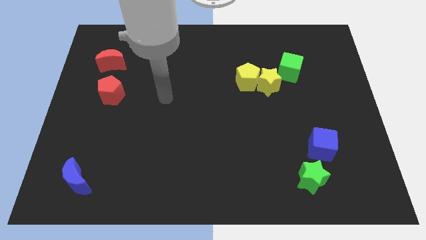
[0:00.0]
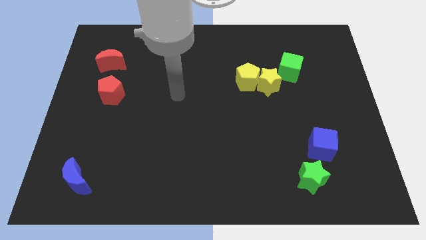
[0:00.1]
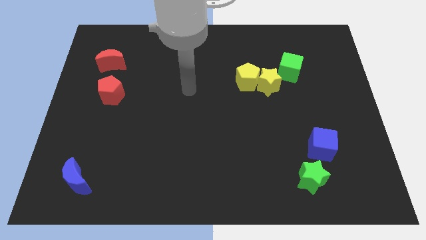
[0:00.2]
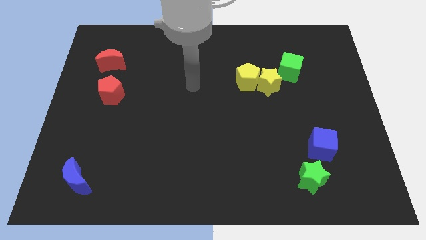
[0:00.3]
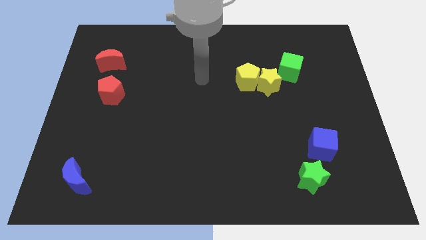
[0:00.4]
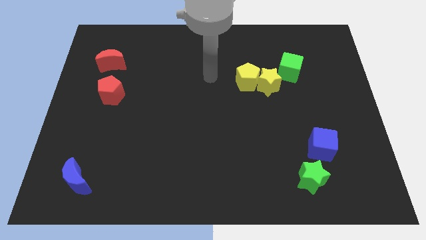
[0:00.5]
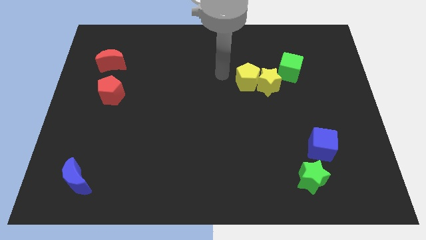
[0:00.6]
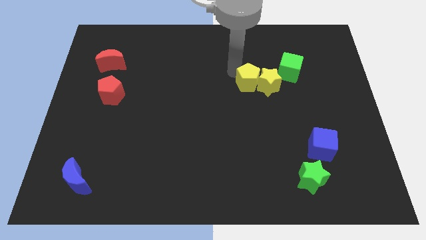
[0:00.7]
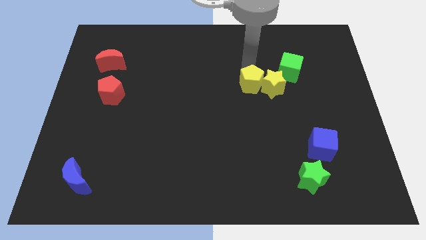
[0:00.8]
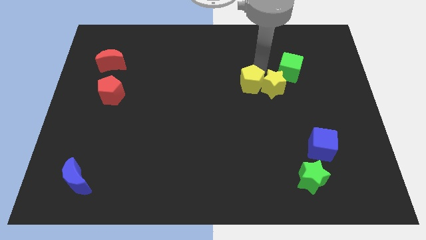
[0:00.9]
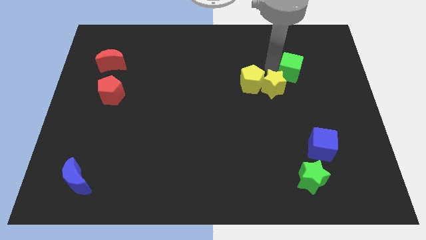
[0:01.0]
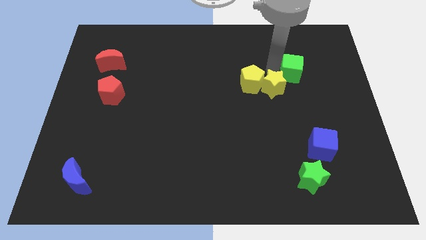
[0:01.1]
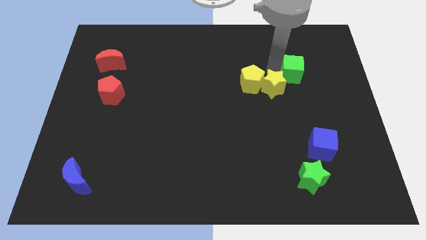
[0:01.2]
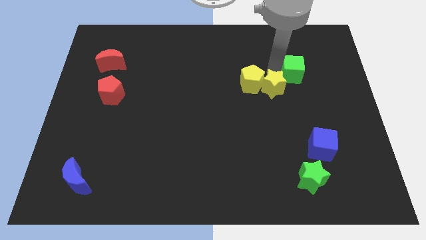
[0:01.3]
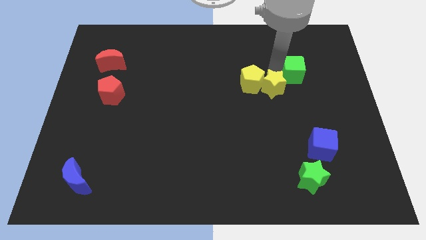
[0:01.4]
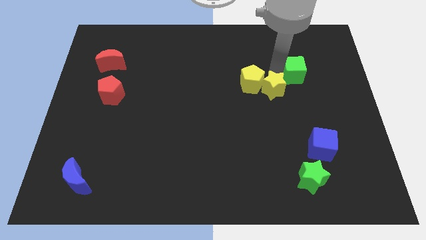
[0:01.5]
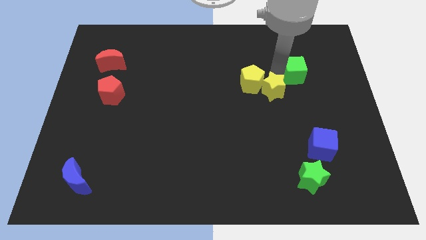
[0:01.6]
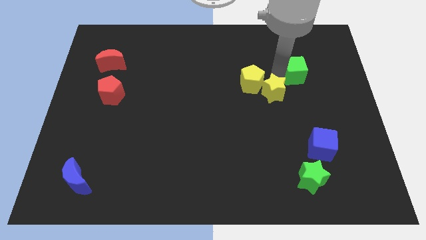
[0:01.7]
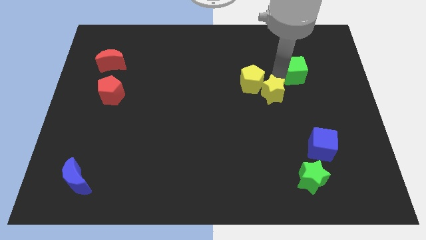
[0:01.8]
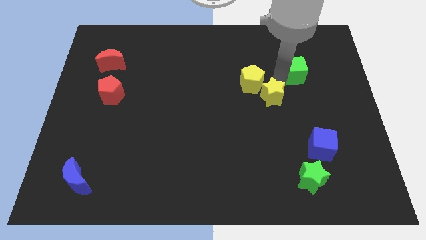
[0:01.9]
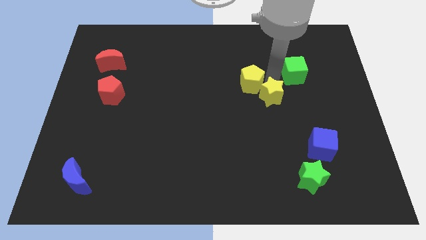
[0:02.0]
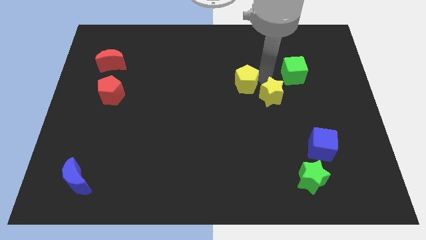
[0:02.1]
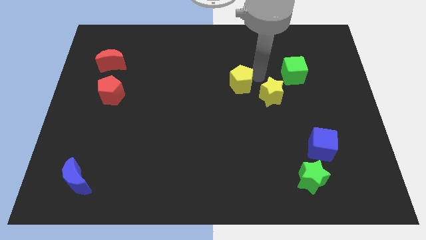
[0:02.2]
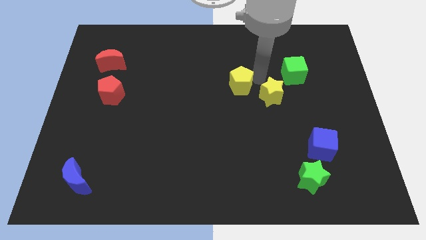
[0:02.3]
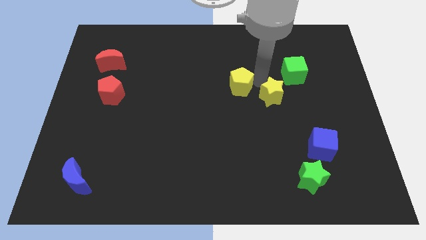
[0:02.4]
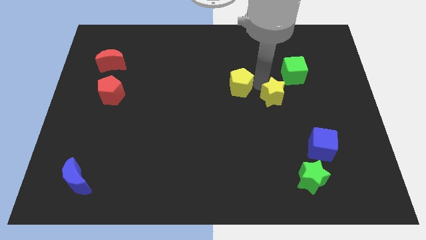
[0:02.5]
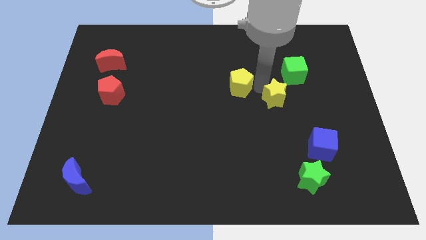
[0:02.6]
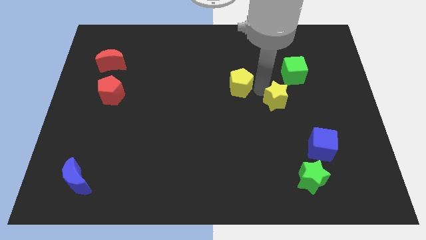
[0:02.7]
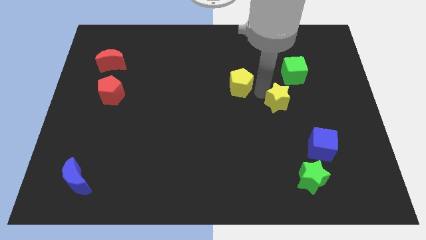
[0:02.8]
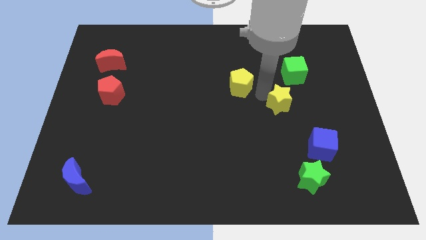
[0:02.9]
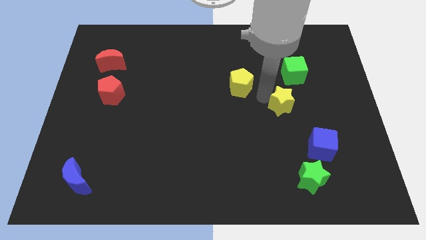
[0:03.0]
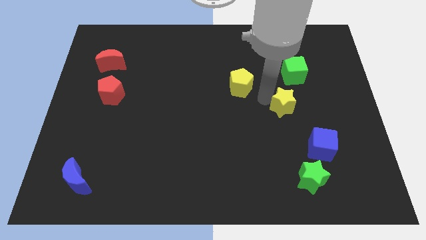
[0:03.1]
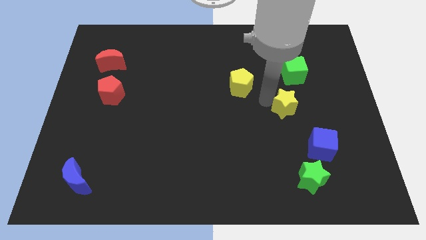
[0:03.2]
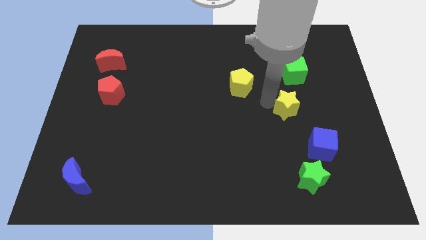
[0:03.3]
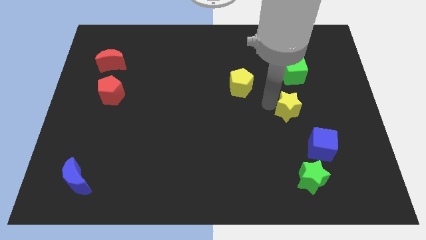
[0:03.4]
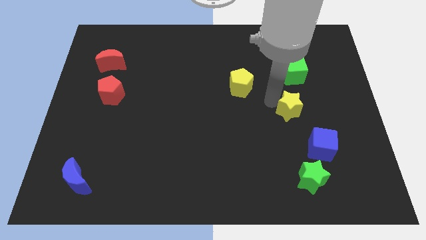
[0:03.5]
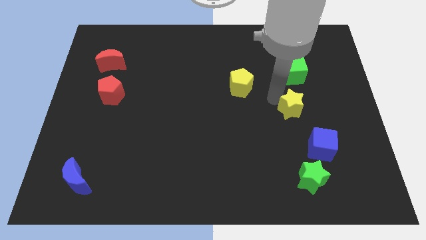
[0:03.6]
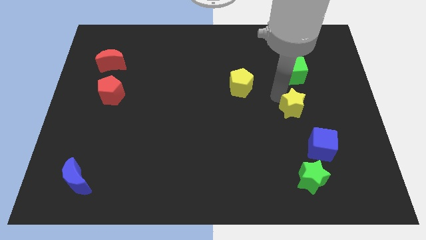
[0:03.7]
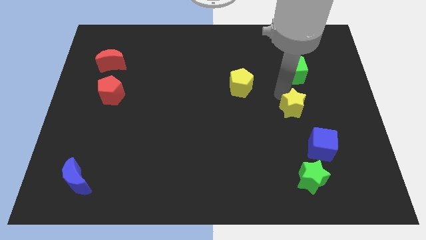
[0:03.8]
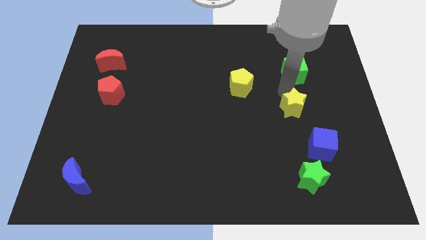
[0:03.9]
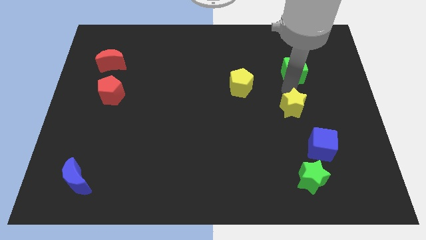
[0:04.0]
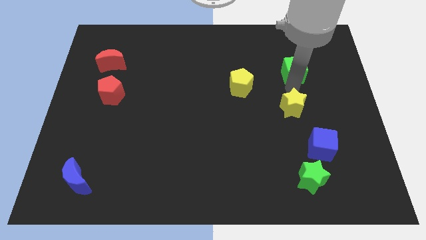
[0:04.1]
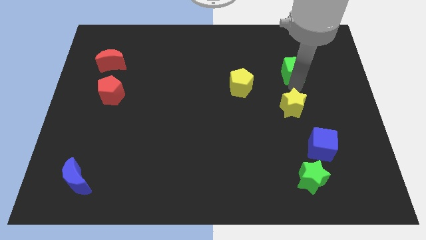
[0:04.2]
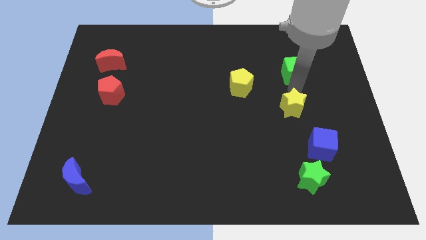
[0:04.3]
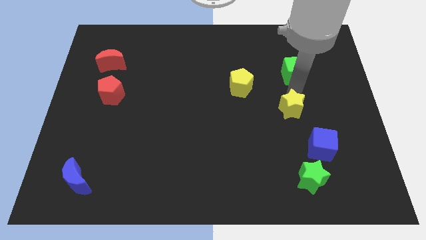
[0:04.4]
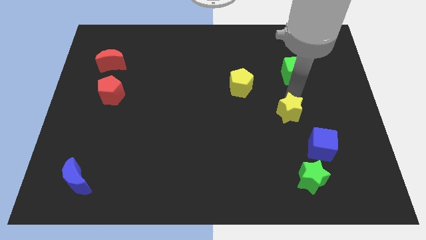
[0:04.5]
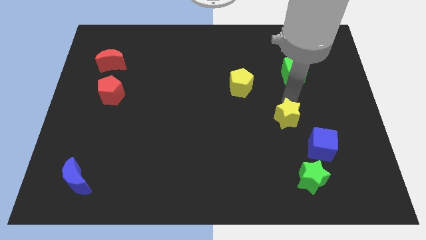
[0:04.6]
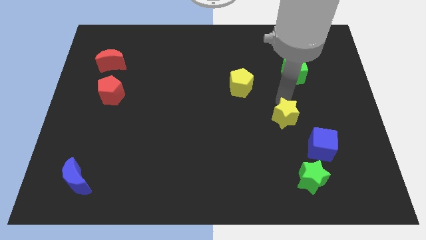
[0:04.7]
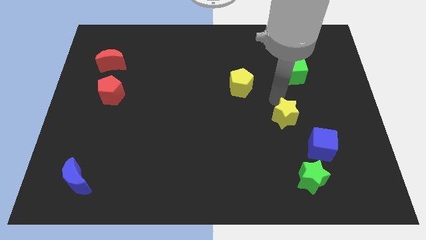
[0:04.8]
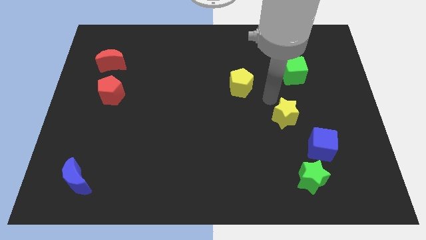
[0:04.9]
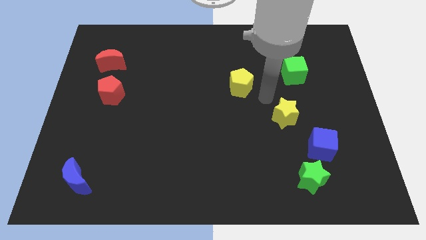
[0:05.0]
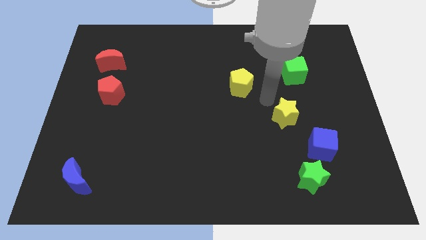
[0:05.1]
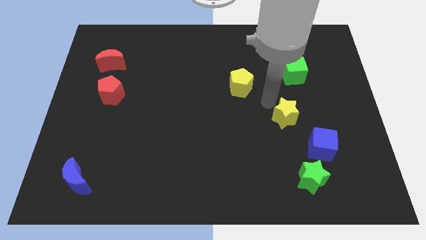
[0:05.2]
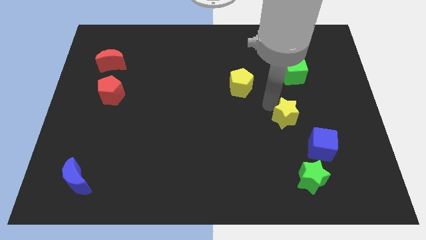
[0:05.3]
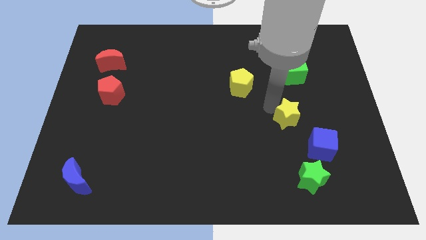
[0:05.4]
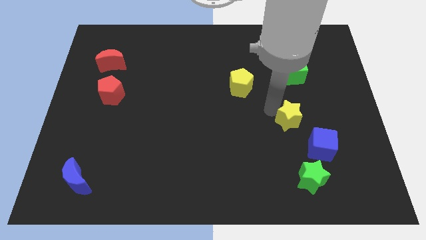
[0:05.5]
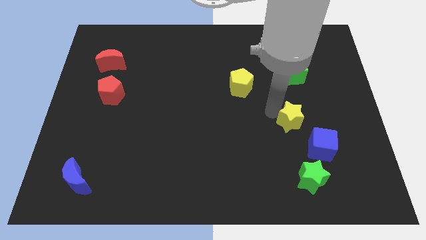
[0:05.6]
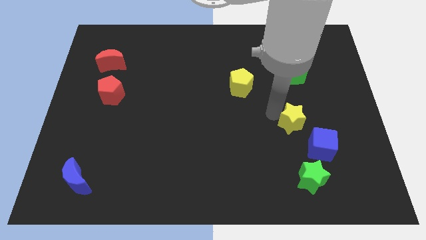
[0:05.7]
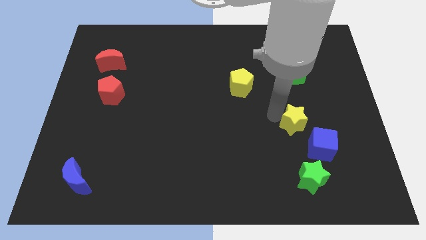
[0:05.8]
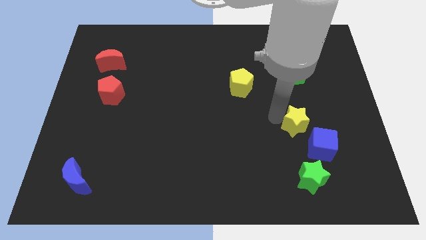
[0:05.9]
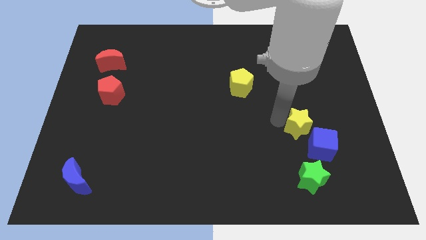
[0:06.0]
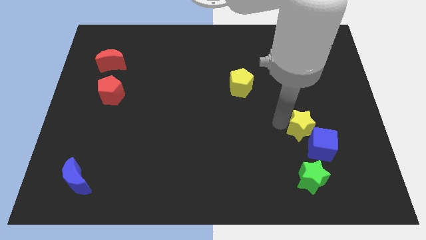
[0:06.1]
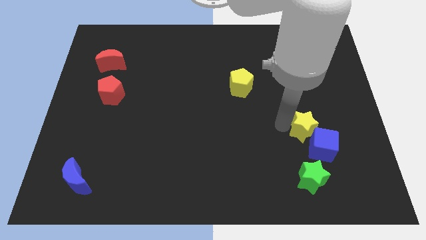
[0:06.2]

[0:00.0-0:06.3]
slide the yellow star to the blue cube

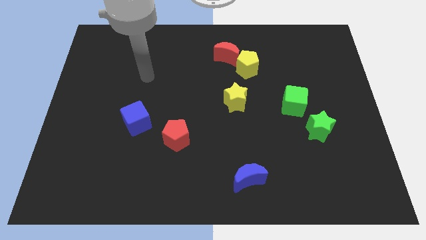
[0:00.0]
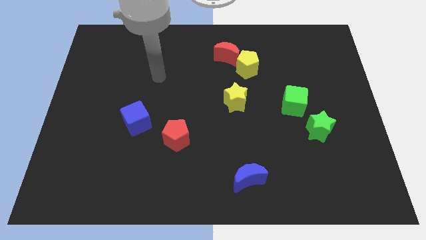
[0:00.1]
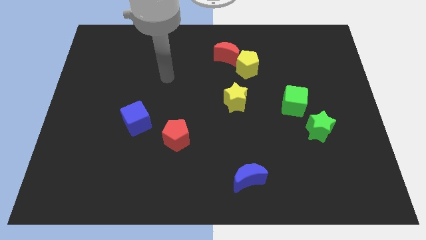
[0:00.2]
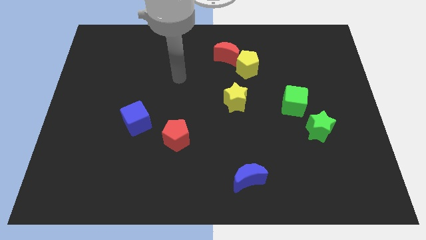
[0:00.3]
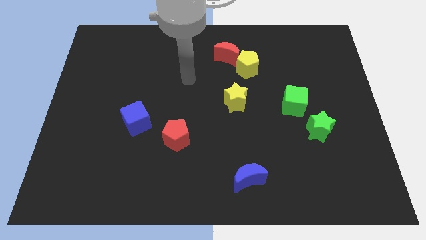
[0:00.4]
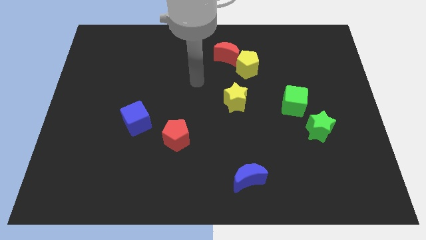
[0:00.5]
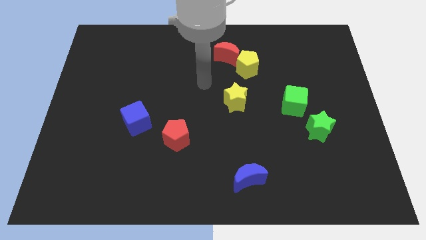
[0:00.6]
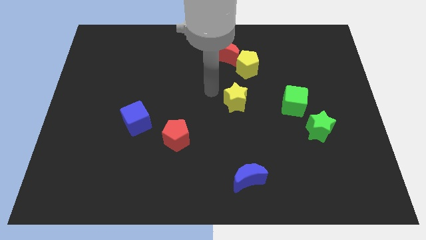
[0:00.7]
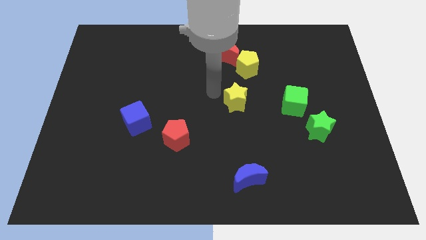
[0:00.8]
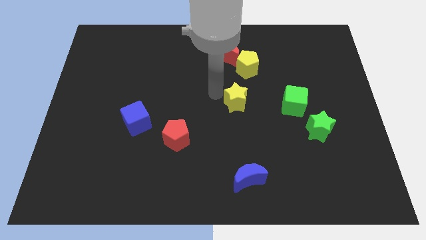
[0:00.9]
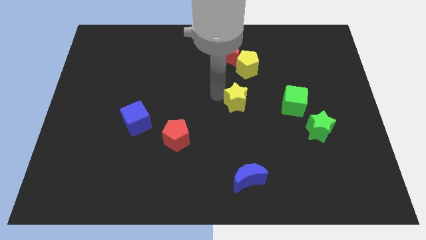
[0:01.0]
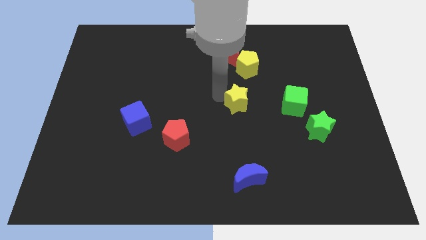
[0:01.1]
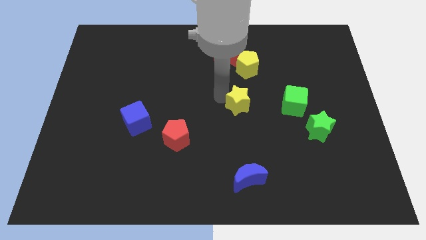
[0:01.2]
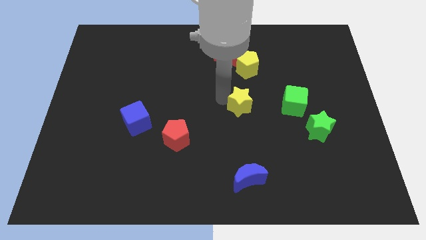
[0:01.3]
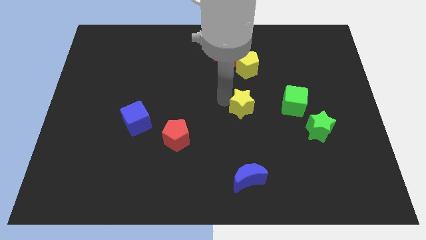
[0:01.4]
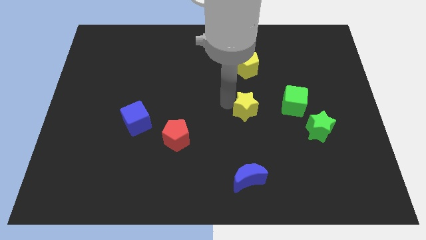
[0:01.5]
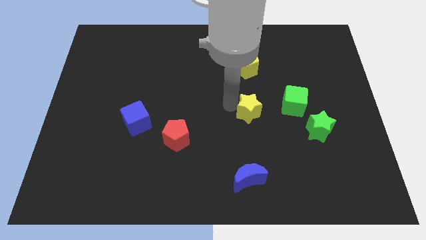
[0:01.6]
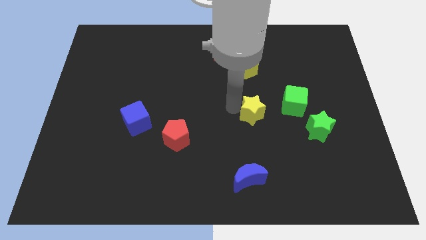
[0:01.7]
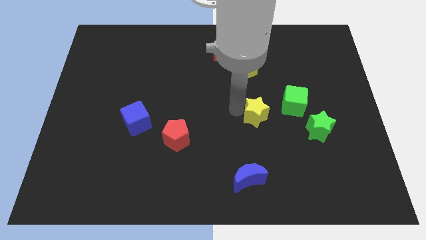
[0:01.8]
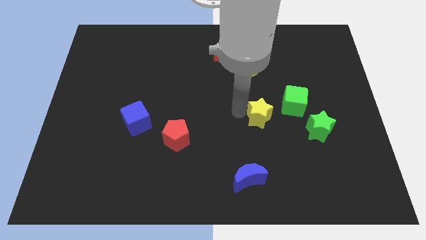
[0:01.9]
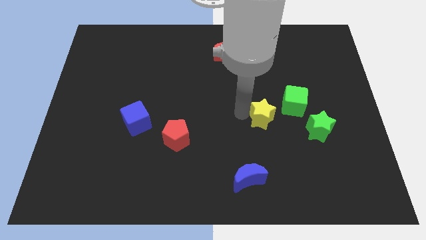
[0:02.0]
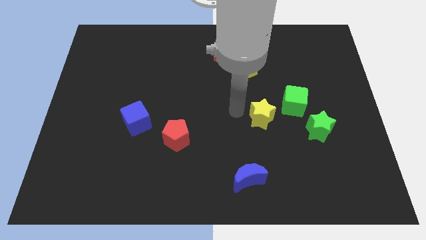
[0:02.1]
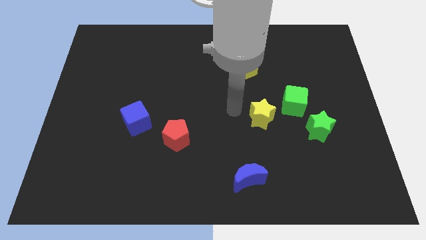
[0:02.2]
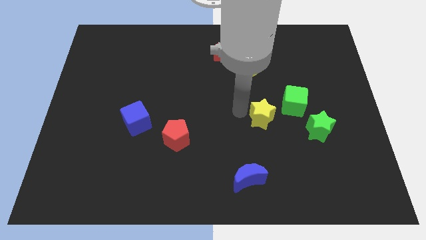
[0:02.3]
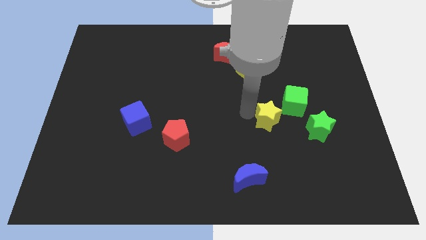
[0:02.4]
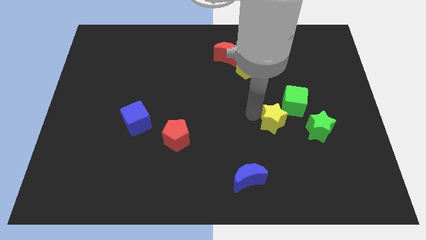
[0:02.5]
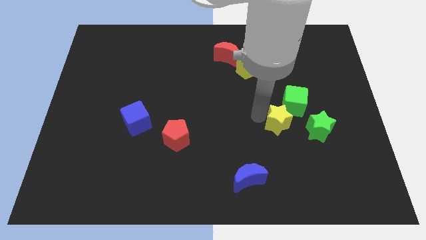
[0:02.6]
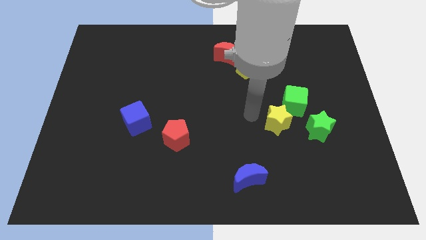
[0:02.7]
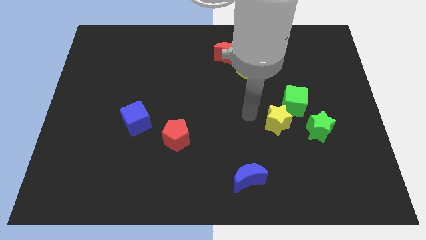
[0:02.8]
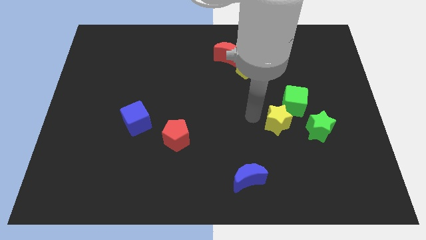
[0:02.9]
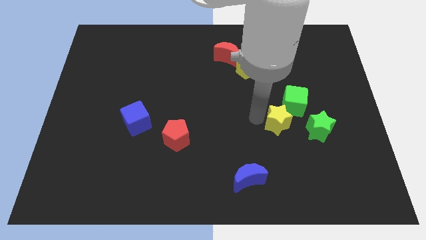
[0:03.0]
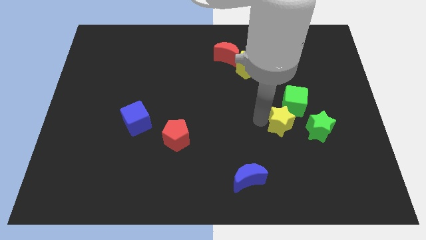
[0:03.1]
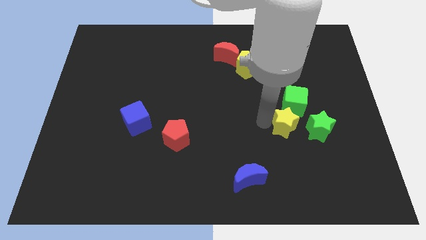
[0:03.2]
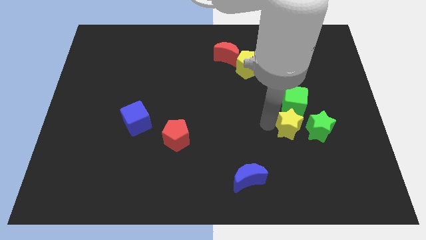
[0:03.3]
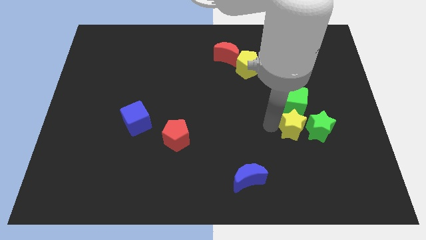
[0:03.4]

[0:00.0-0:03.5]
push the yellow star towards the green star
